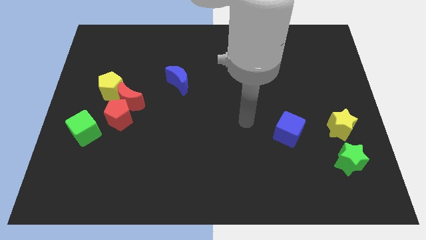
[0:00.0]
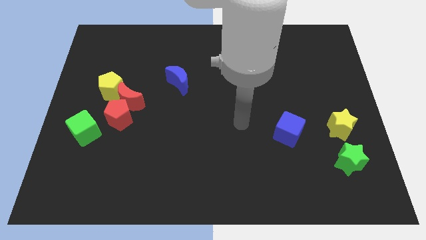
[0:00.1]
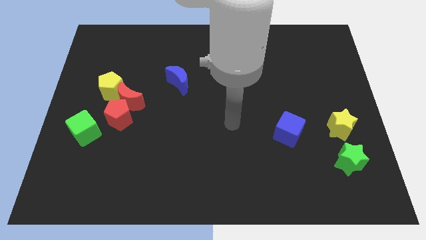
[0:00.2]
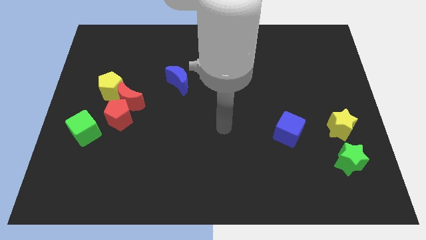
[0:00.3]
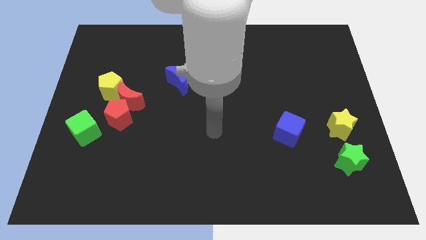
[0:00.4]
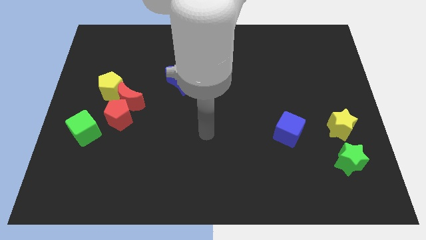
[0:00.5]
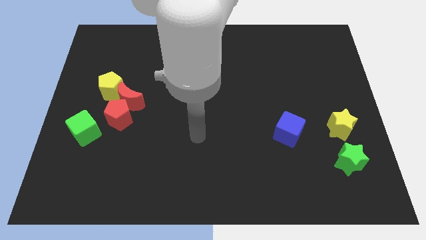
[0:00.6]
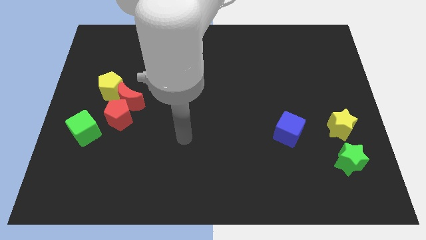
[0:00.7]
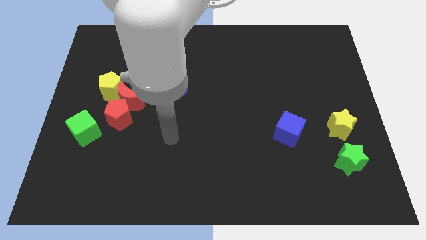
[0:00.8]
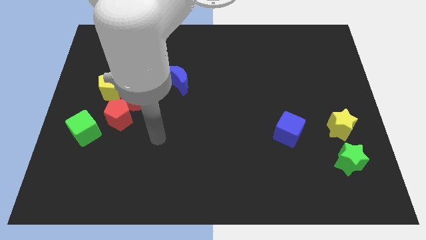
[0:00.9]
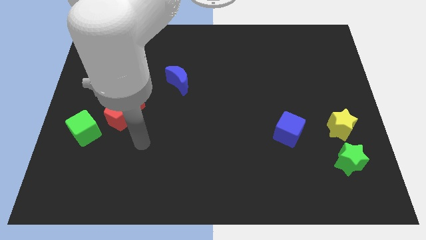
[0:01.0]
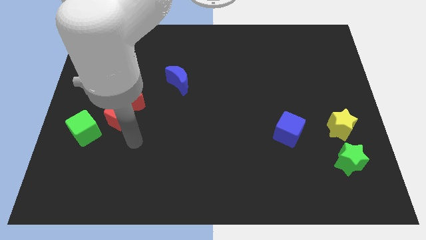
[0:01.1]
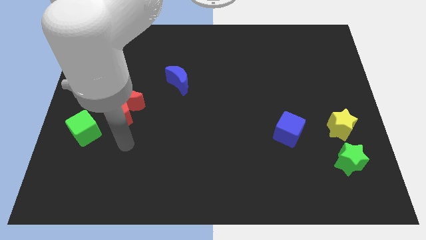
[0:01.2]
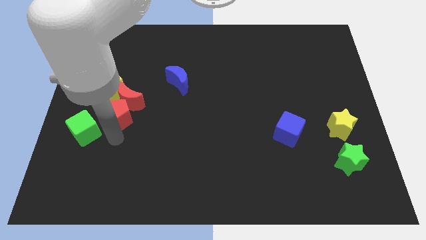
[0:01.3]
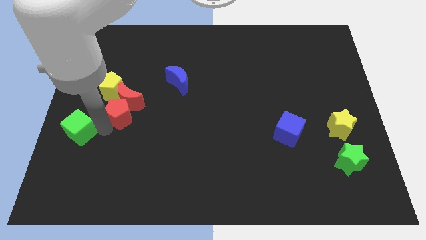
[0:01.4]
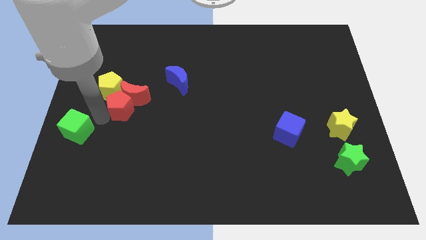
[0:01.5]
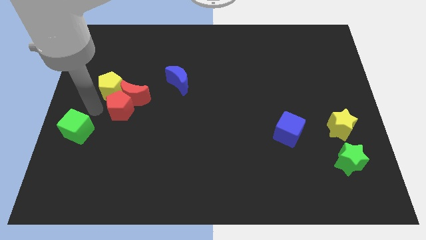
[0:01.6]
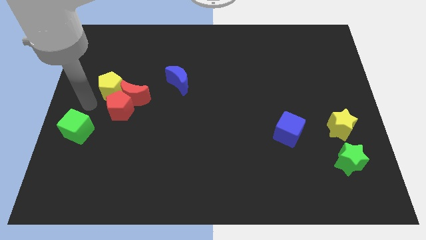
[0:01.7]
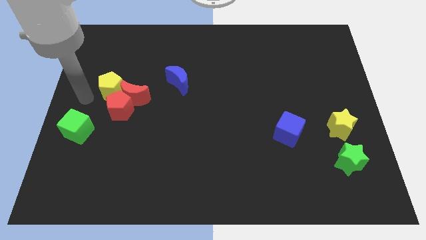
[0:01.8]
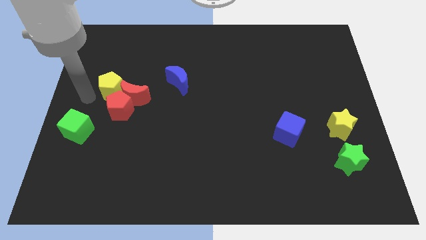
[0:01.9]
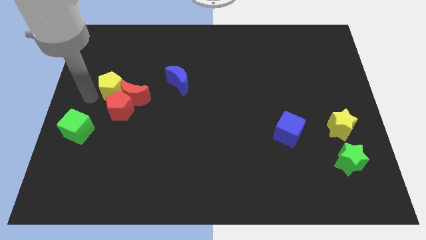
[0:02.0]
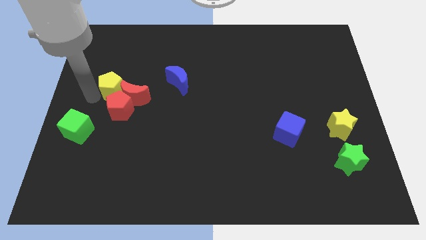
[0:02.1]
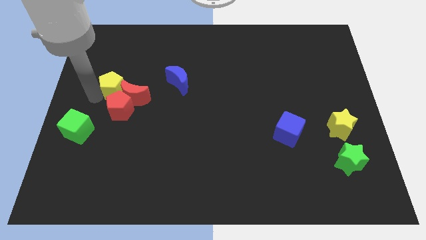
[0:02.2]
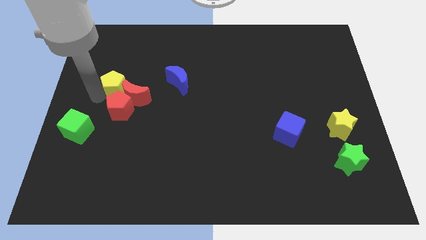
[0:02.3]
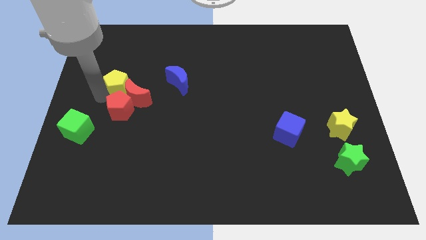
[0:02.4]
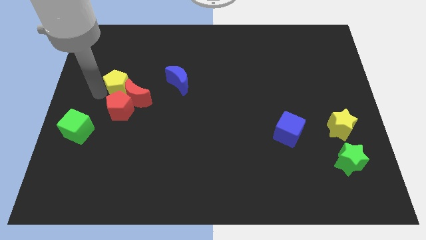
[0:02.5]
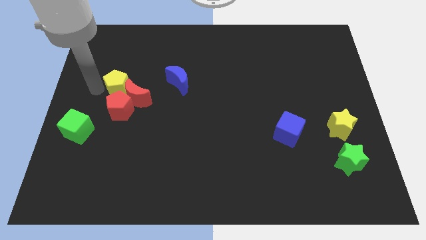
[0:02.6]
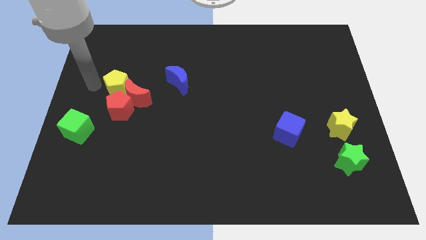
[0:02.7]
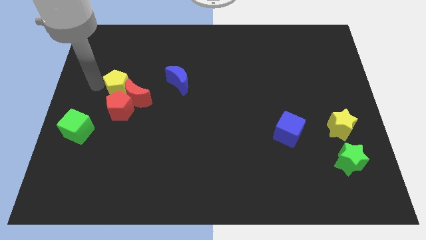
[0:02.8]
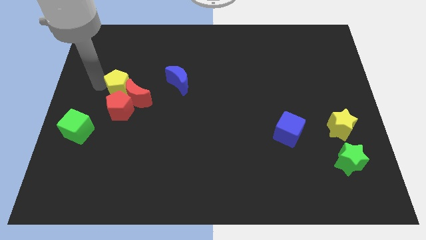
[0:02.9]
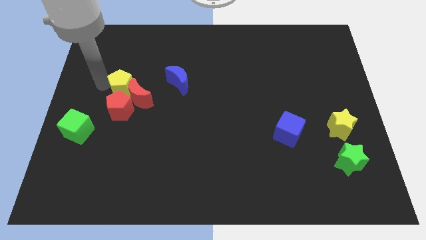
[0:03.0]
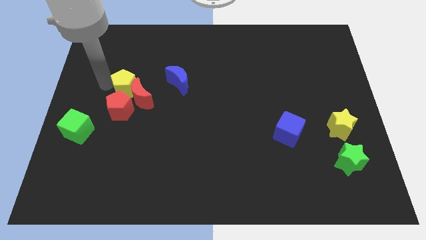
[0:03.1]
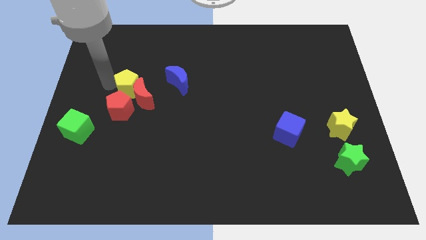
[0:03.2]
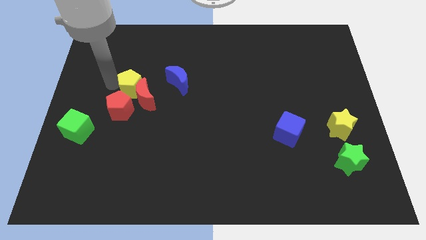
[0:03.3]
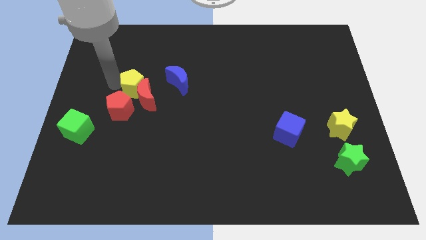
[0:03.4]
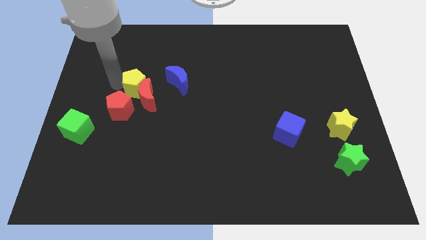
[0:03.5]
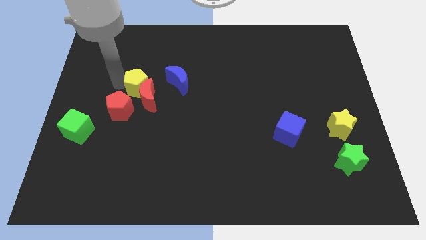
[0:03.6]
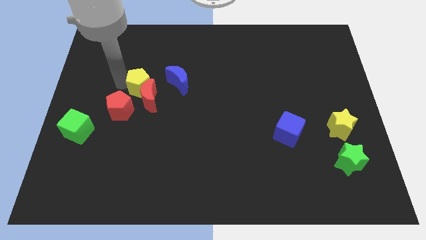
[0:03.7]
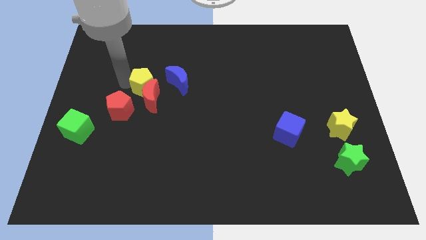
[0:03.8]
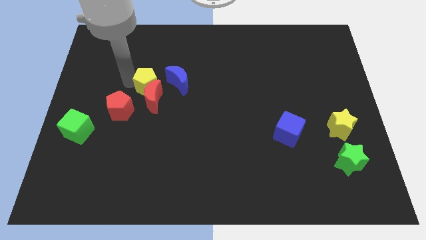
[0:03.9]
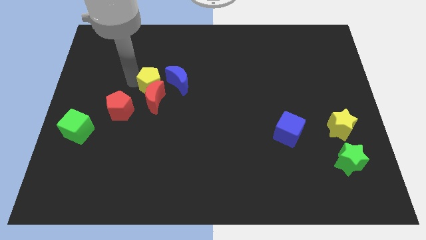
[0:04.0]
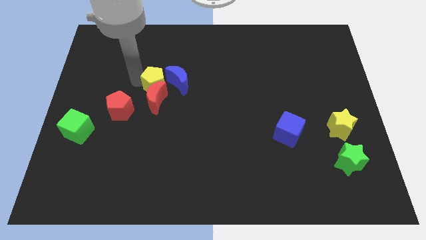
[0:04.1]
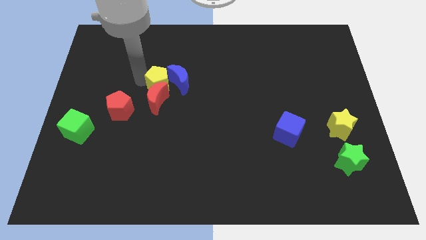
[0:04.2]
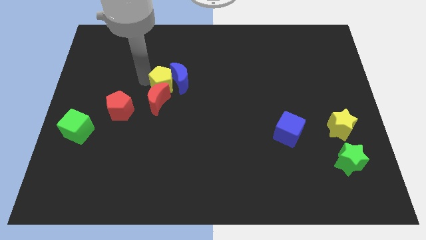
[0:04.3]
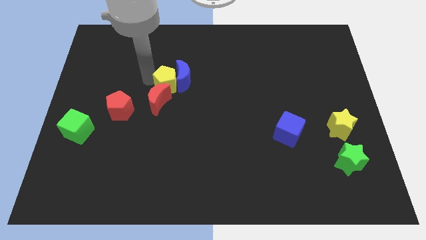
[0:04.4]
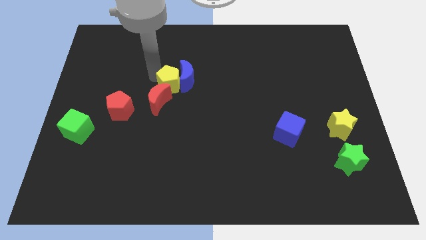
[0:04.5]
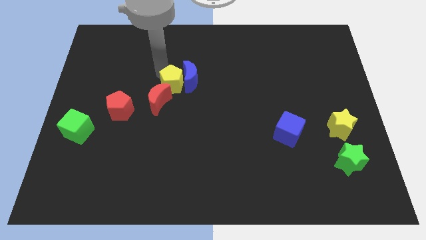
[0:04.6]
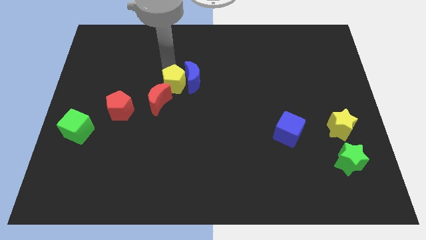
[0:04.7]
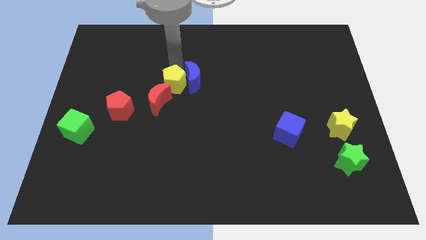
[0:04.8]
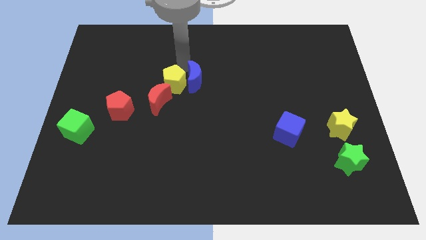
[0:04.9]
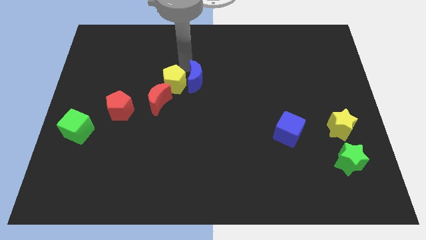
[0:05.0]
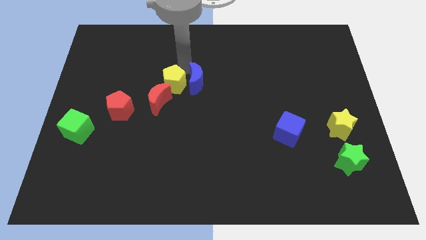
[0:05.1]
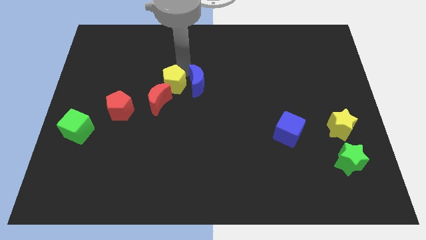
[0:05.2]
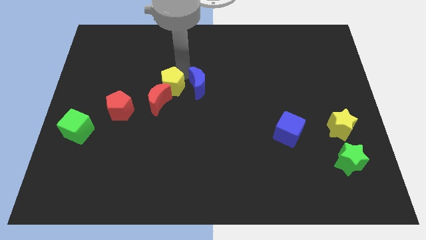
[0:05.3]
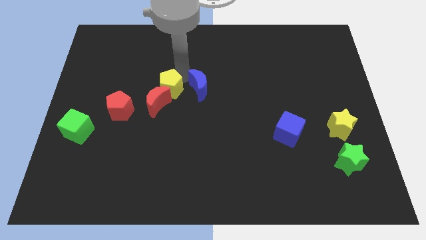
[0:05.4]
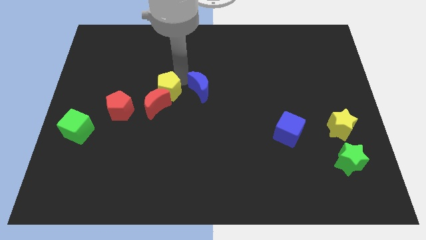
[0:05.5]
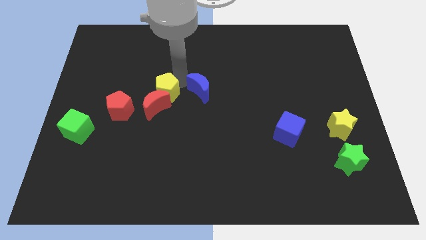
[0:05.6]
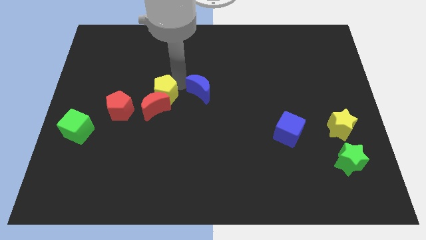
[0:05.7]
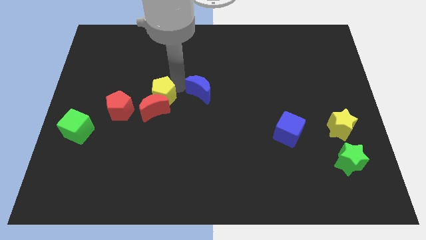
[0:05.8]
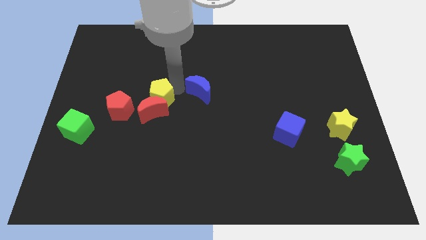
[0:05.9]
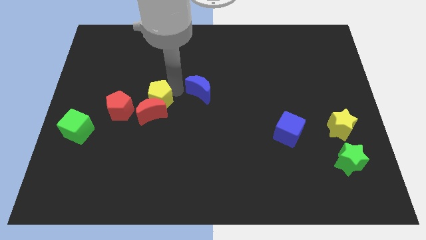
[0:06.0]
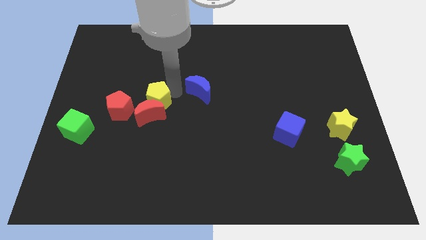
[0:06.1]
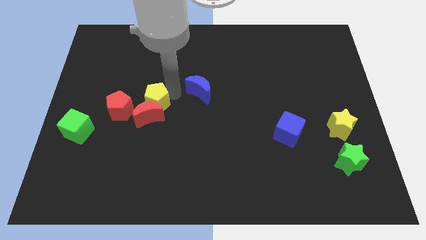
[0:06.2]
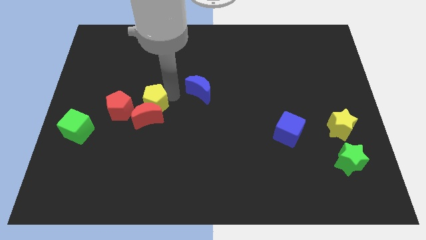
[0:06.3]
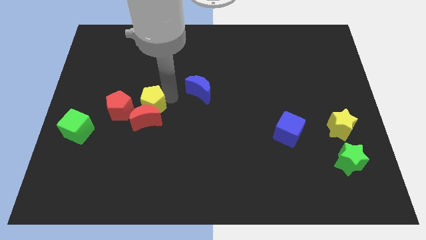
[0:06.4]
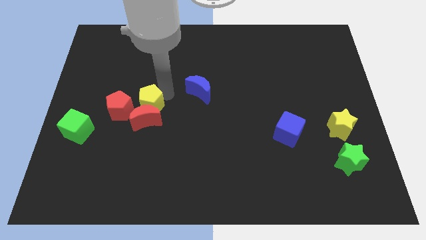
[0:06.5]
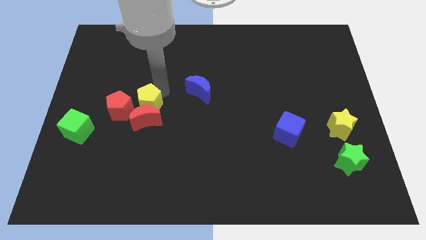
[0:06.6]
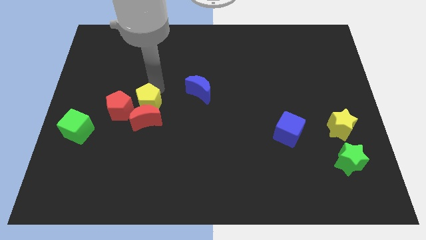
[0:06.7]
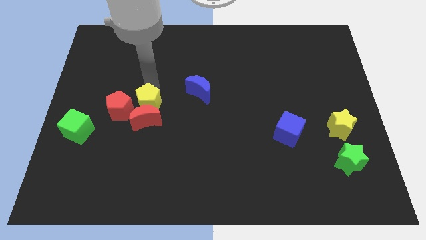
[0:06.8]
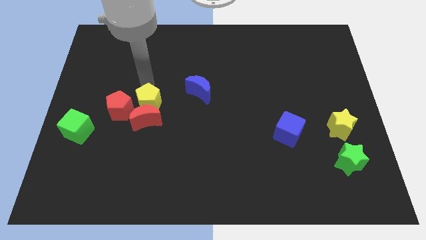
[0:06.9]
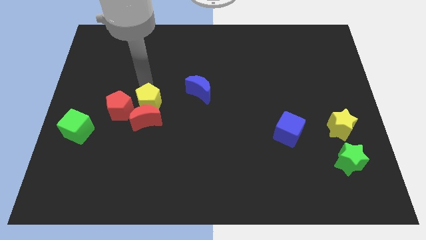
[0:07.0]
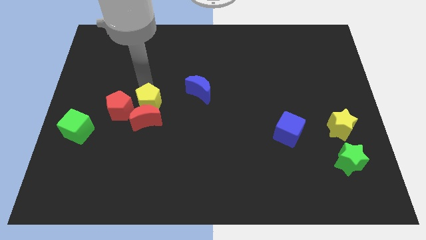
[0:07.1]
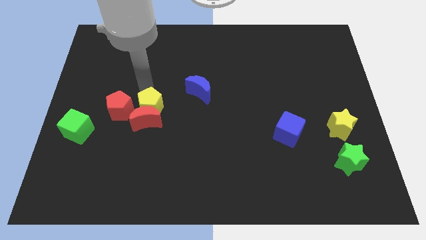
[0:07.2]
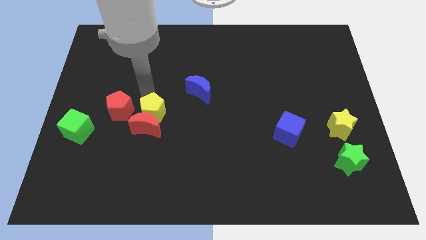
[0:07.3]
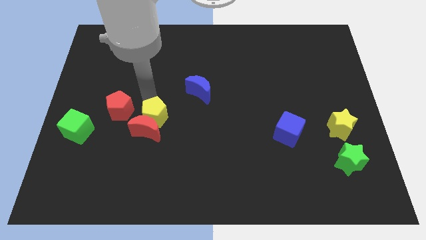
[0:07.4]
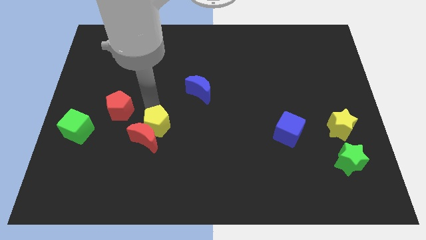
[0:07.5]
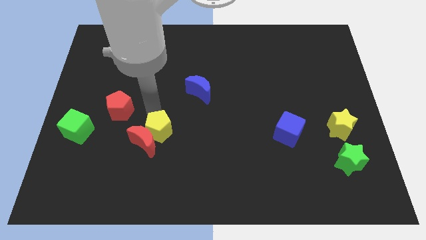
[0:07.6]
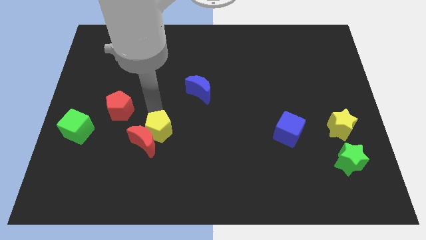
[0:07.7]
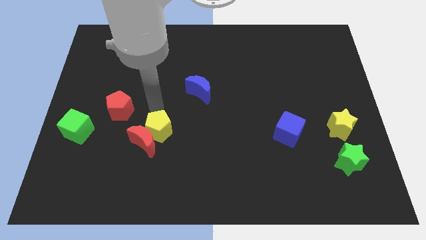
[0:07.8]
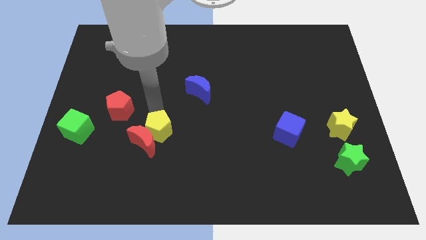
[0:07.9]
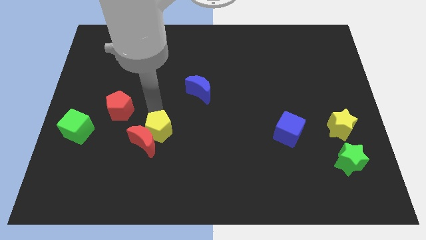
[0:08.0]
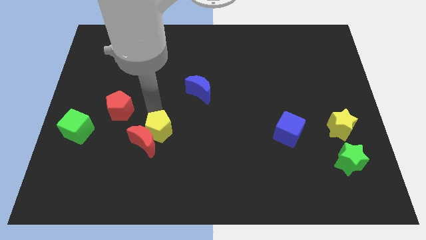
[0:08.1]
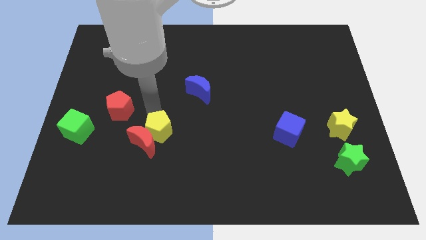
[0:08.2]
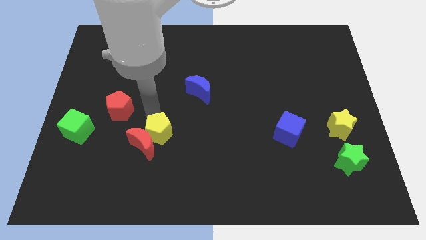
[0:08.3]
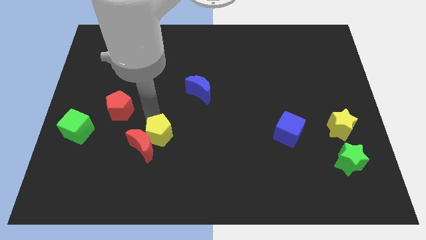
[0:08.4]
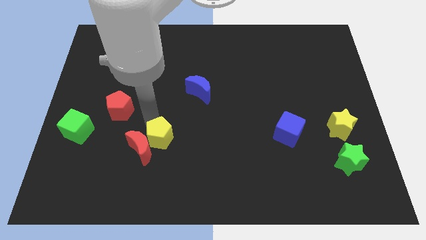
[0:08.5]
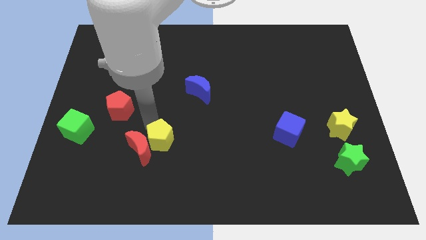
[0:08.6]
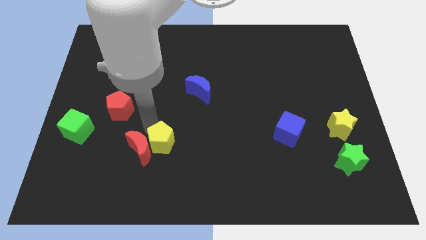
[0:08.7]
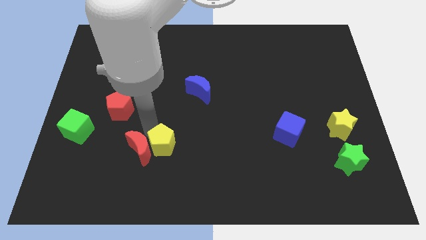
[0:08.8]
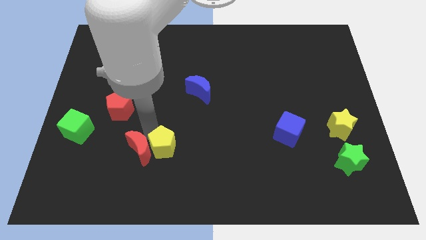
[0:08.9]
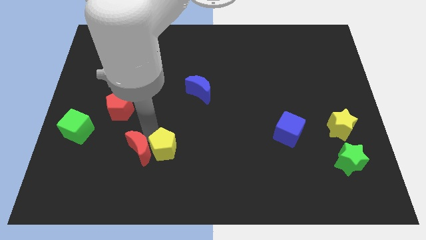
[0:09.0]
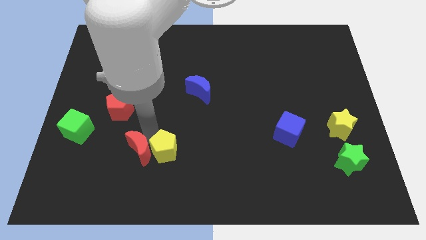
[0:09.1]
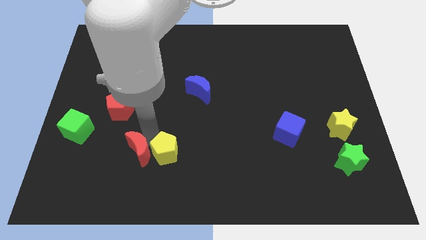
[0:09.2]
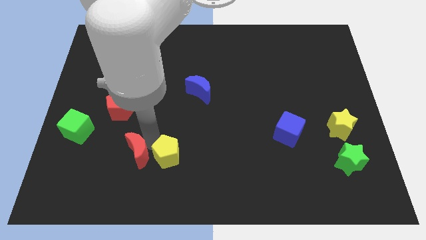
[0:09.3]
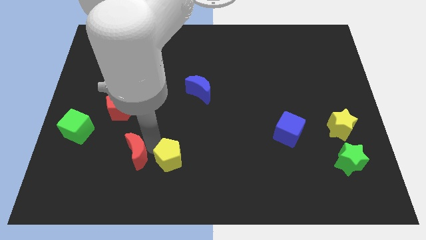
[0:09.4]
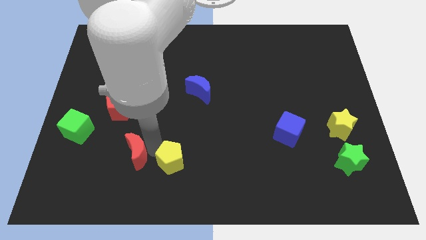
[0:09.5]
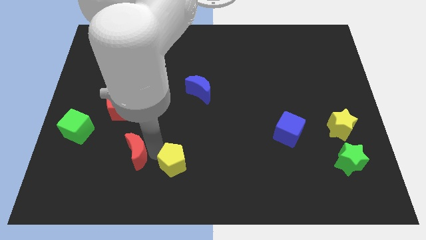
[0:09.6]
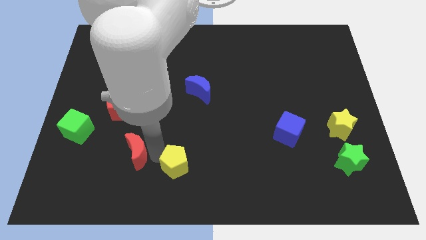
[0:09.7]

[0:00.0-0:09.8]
slide the yellow pentagon to the bottom side
